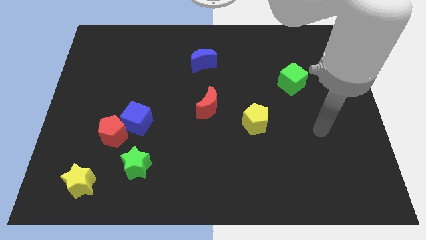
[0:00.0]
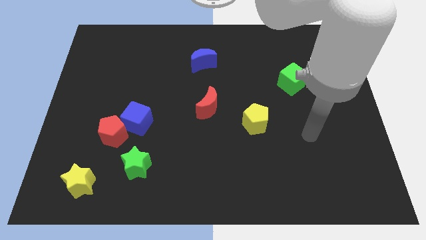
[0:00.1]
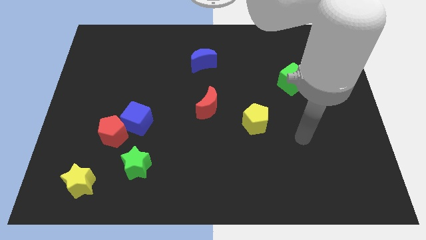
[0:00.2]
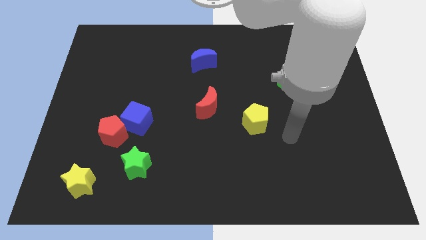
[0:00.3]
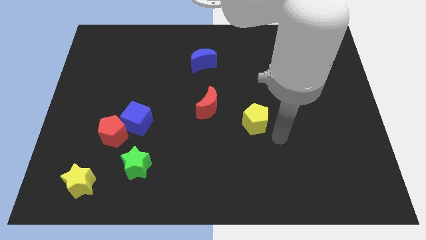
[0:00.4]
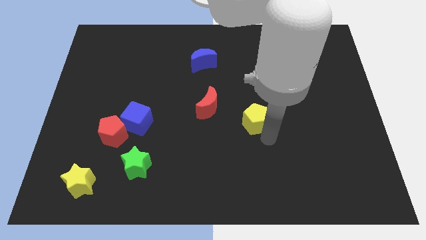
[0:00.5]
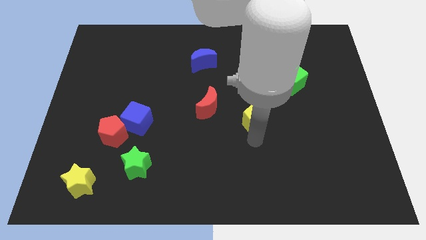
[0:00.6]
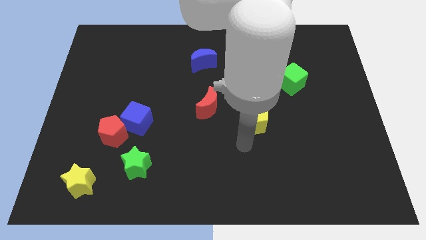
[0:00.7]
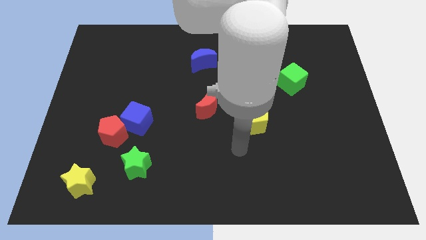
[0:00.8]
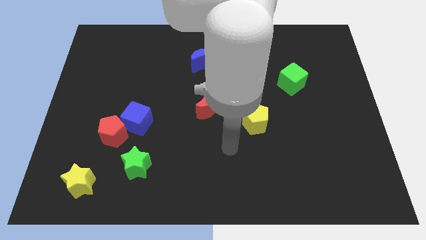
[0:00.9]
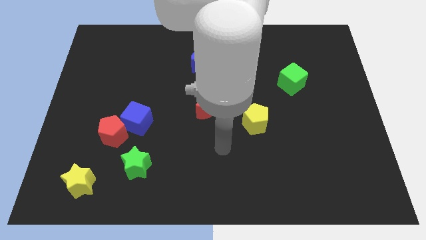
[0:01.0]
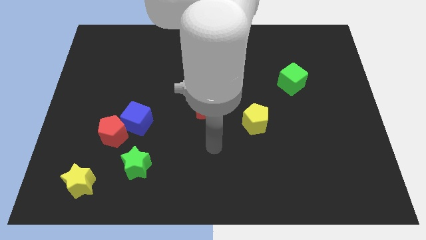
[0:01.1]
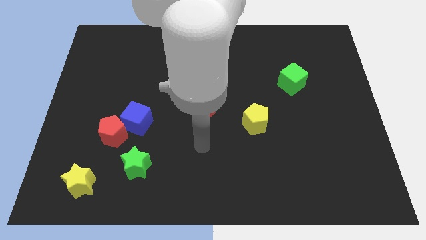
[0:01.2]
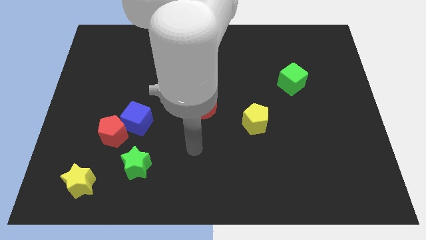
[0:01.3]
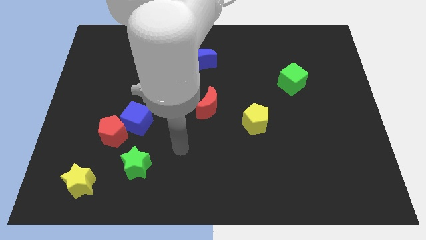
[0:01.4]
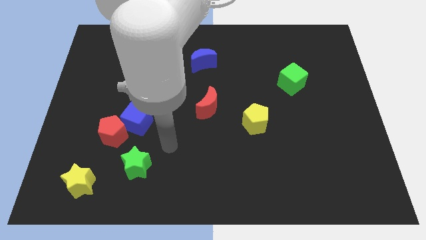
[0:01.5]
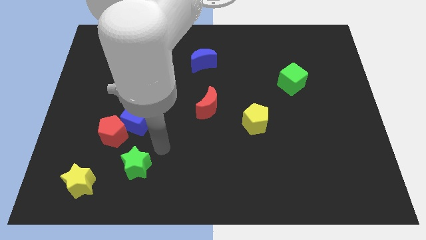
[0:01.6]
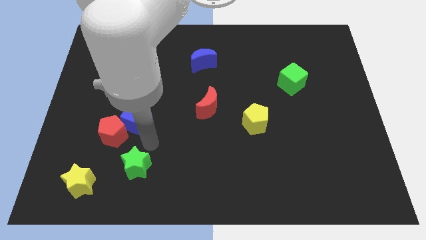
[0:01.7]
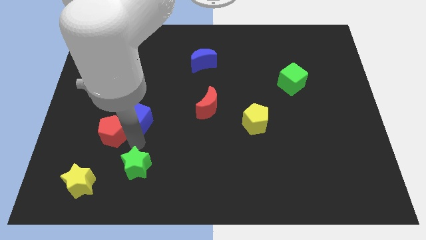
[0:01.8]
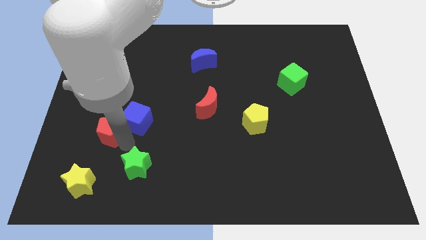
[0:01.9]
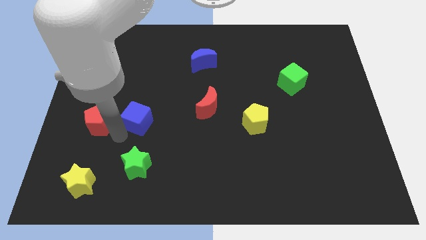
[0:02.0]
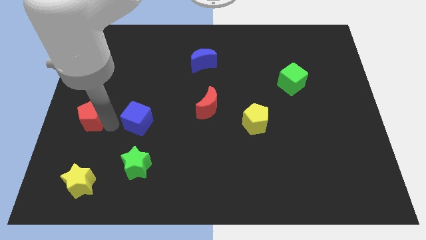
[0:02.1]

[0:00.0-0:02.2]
separate the blue cube from the red pentagon

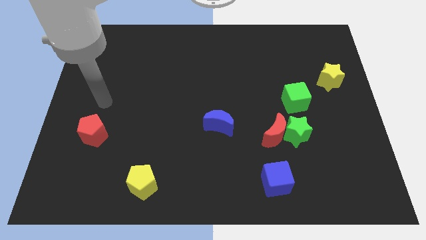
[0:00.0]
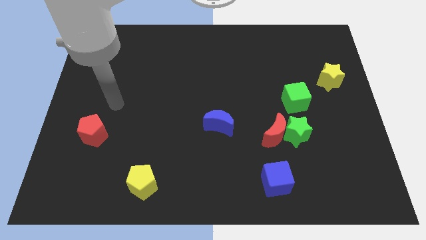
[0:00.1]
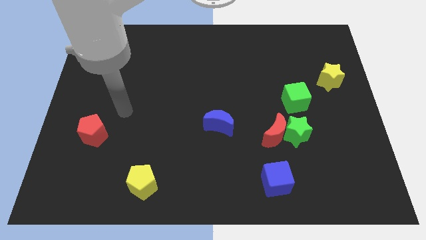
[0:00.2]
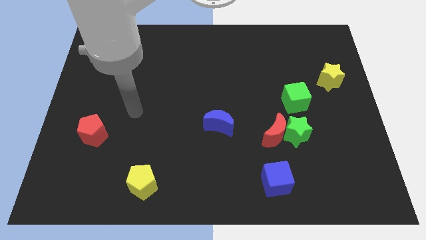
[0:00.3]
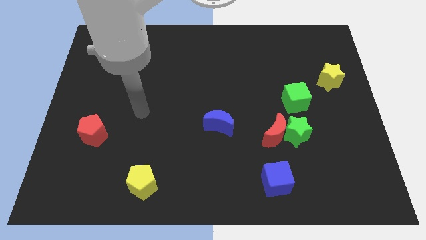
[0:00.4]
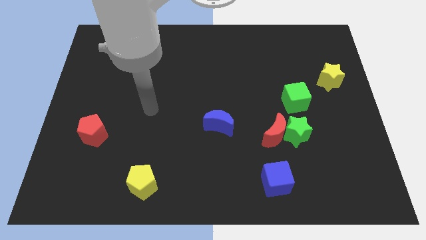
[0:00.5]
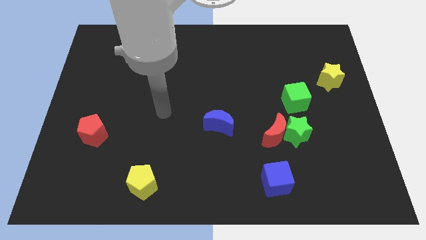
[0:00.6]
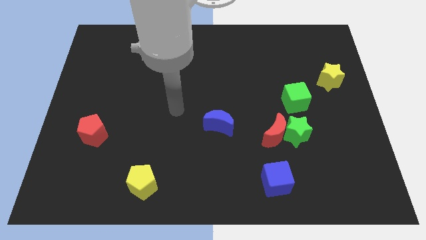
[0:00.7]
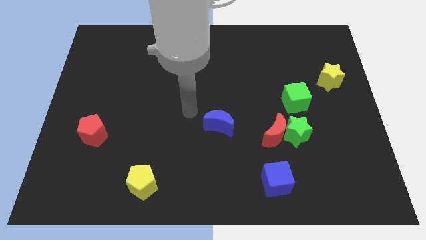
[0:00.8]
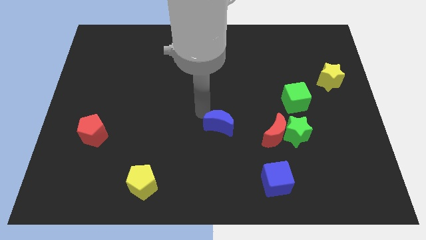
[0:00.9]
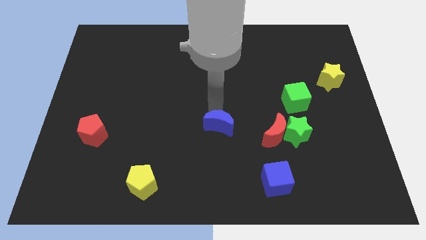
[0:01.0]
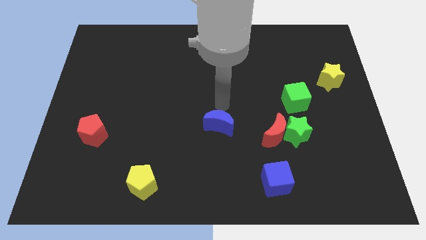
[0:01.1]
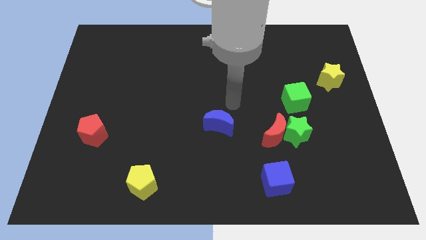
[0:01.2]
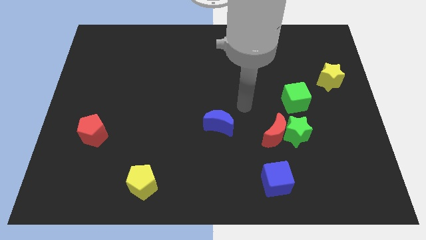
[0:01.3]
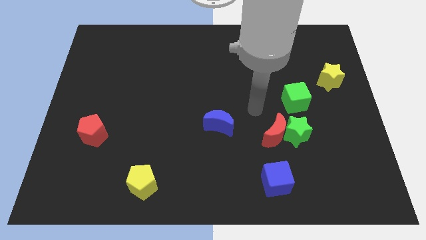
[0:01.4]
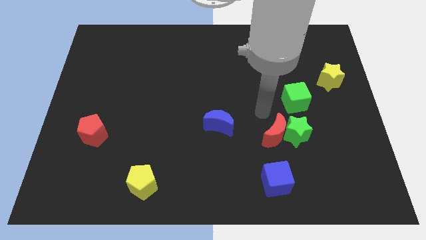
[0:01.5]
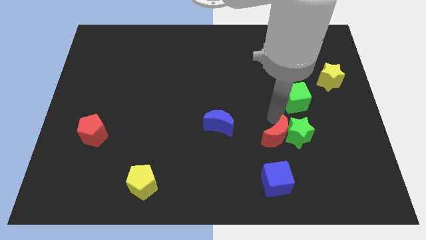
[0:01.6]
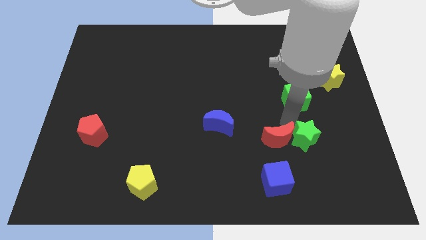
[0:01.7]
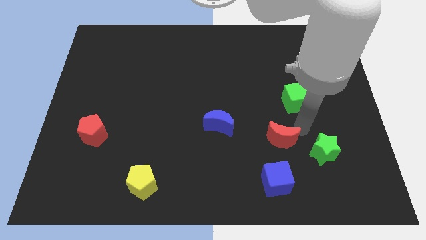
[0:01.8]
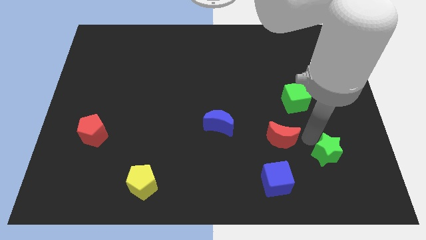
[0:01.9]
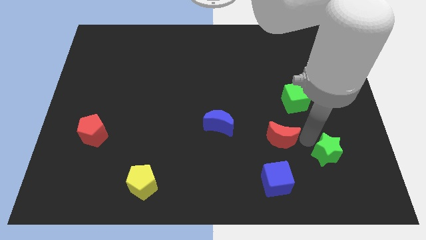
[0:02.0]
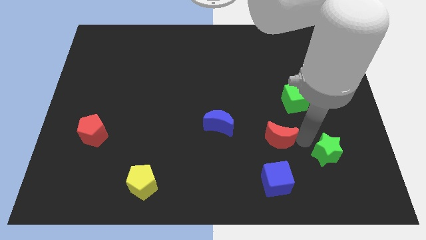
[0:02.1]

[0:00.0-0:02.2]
pull the red moon apart from the green star

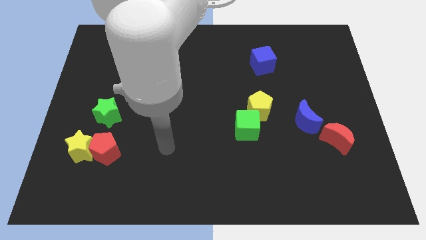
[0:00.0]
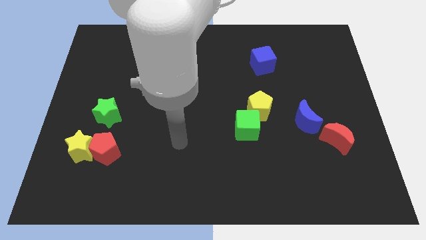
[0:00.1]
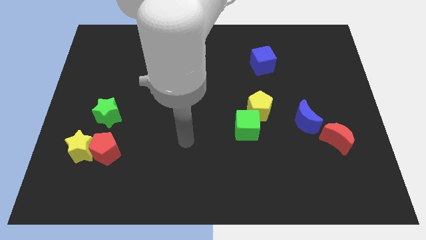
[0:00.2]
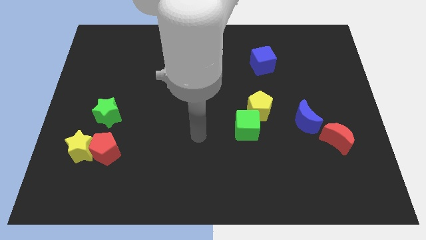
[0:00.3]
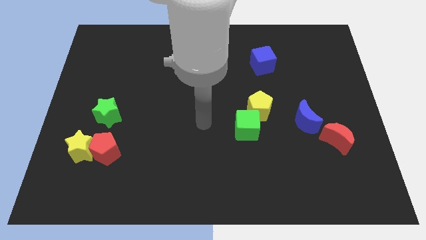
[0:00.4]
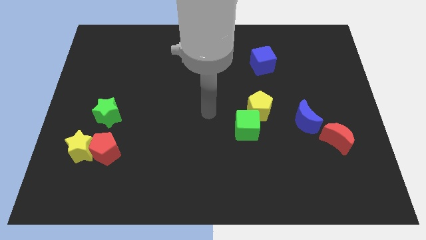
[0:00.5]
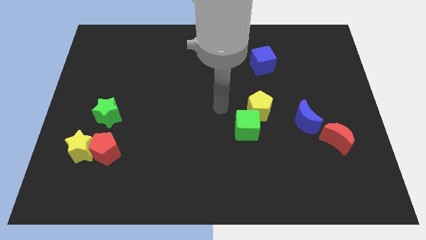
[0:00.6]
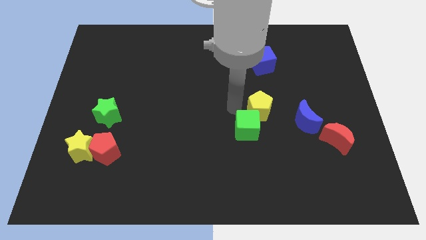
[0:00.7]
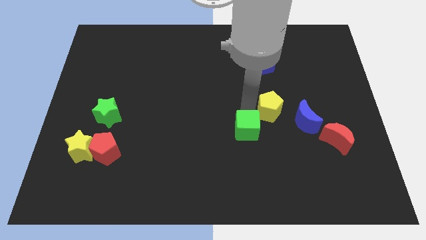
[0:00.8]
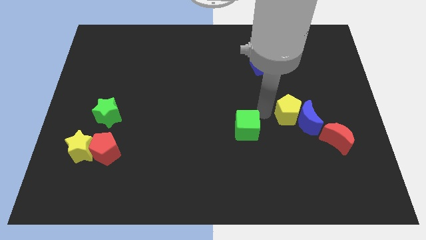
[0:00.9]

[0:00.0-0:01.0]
move the green cube away from the yellow pentagon

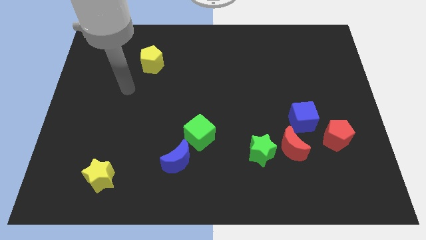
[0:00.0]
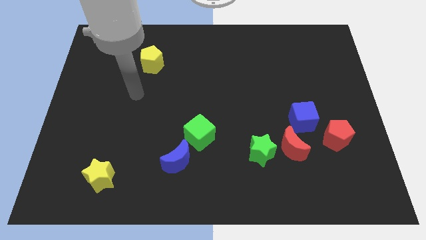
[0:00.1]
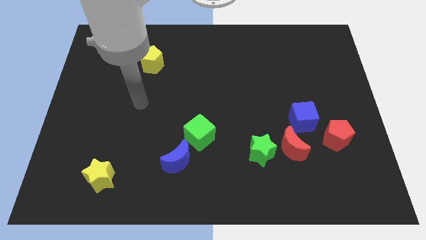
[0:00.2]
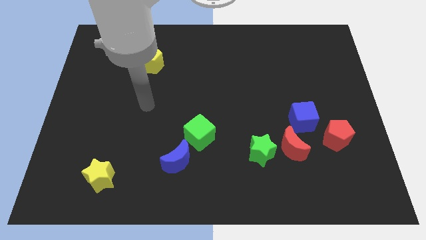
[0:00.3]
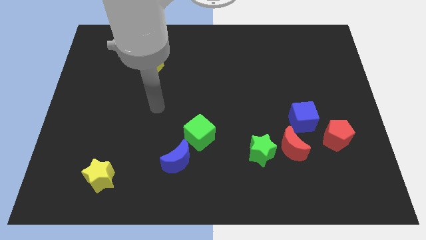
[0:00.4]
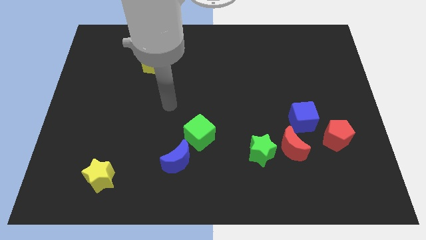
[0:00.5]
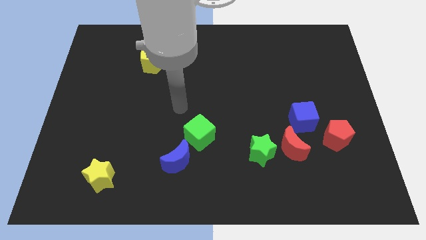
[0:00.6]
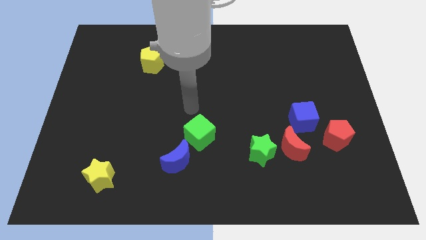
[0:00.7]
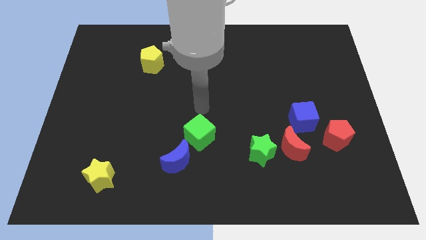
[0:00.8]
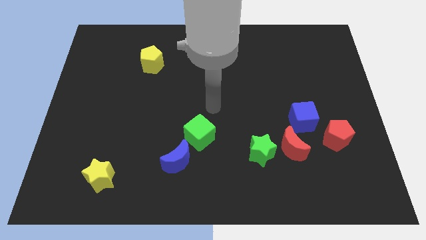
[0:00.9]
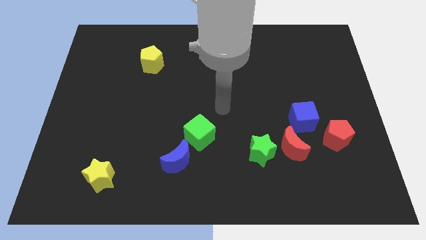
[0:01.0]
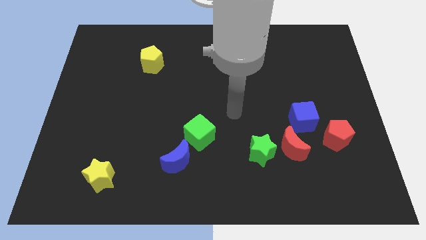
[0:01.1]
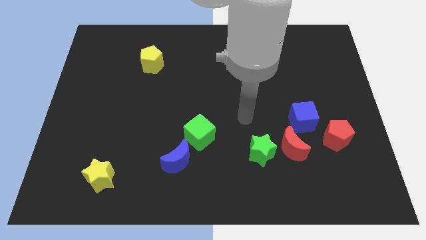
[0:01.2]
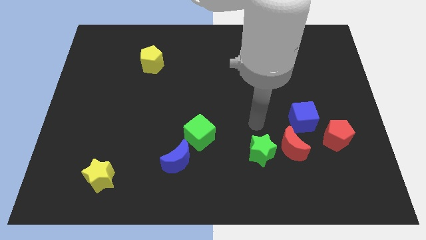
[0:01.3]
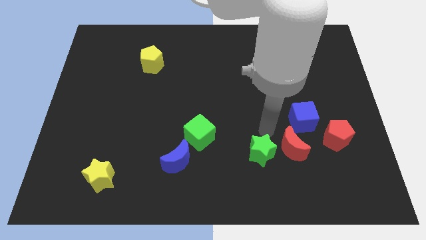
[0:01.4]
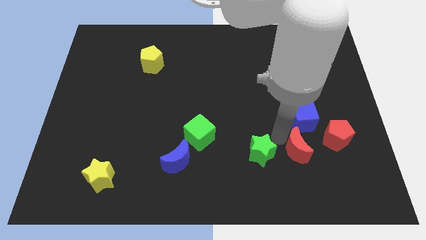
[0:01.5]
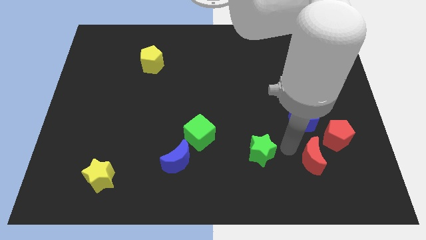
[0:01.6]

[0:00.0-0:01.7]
move the green star away from the red moon

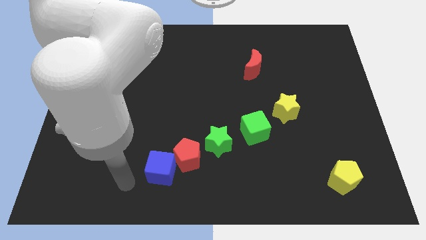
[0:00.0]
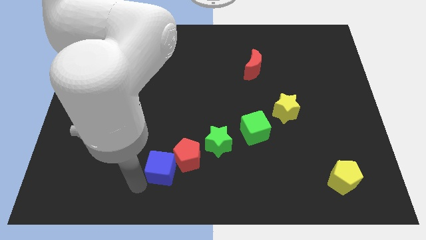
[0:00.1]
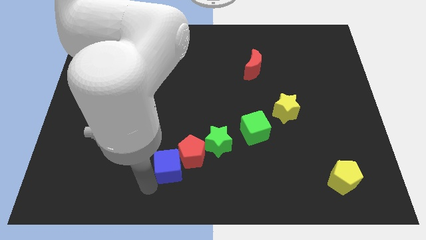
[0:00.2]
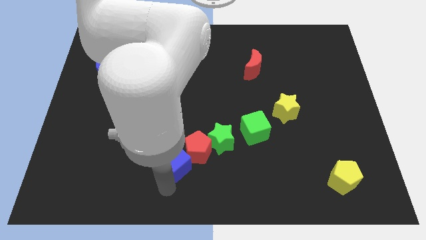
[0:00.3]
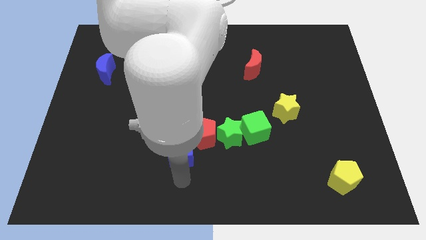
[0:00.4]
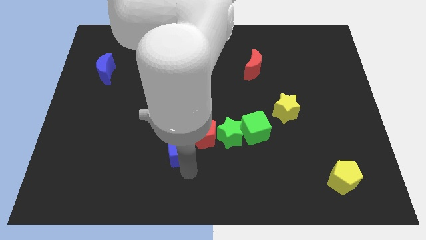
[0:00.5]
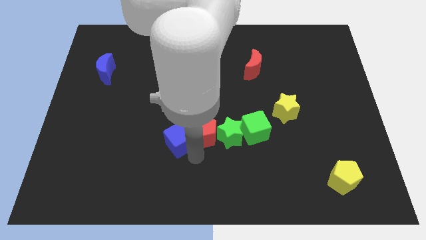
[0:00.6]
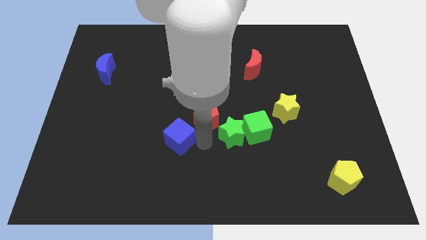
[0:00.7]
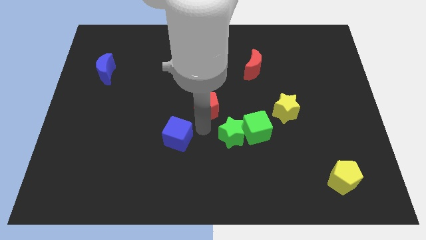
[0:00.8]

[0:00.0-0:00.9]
pull the blue cube apart from the red pentagon

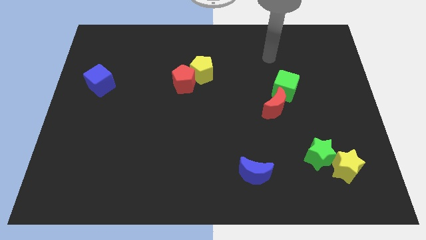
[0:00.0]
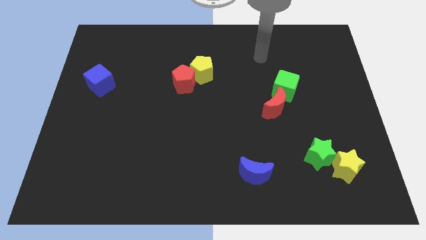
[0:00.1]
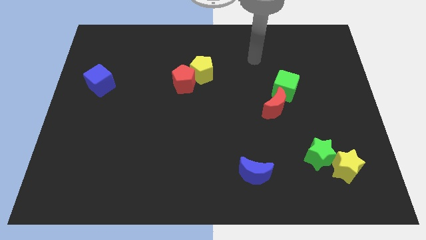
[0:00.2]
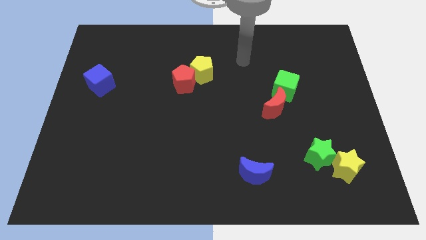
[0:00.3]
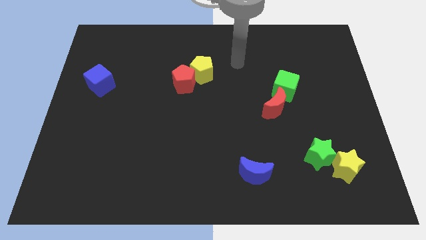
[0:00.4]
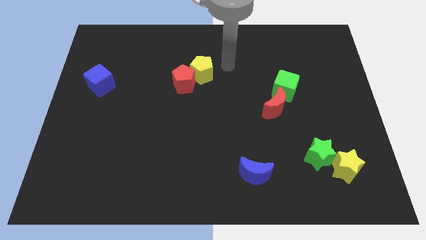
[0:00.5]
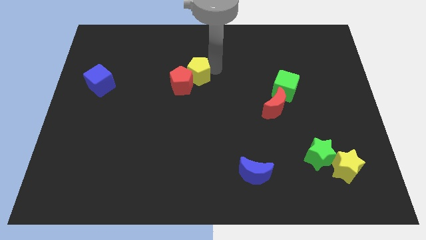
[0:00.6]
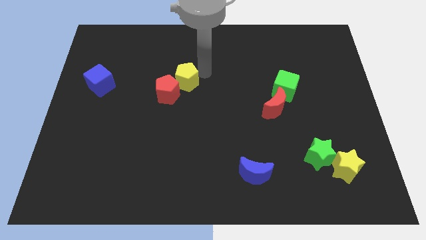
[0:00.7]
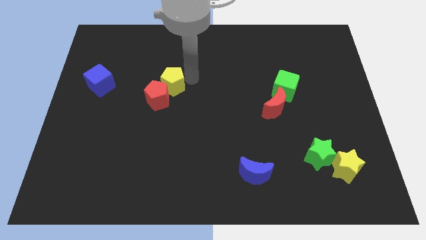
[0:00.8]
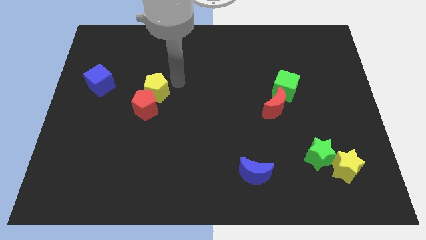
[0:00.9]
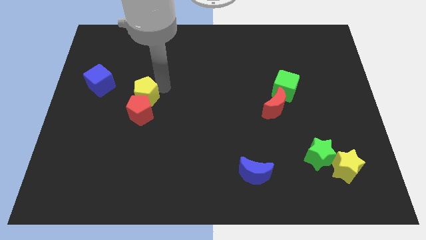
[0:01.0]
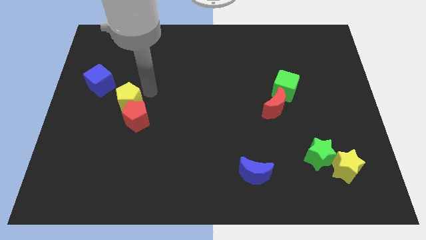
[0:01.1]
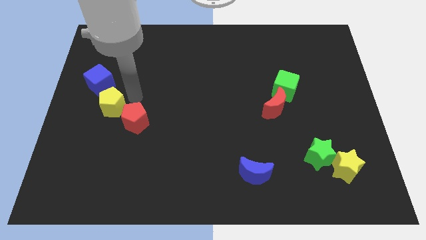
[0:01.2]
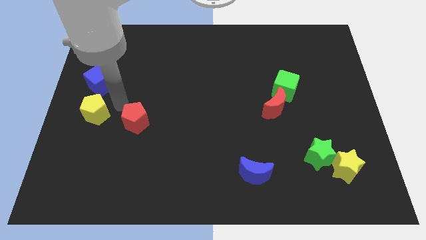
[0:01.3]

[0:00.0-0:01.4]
move the red pentagon away from the yellow pentagon
